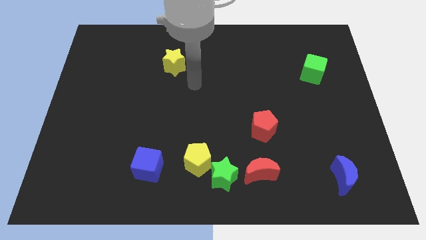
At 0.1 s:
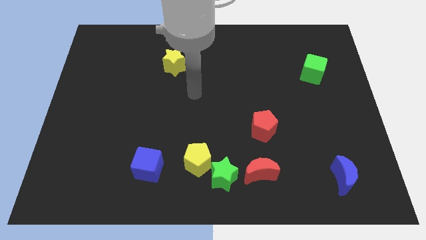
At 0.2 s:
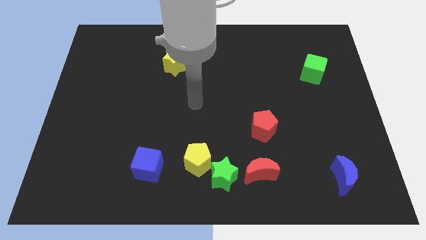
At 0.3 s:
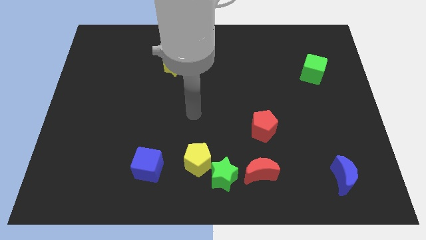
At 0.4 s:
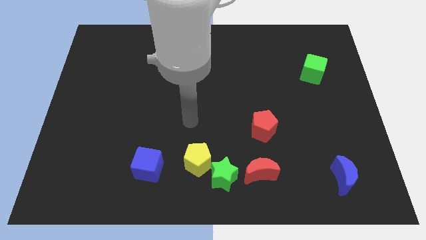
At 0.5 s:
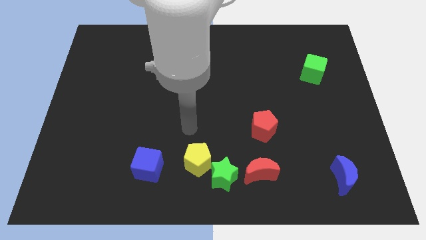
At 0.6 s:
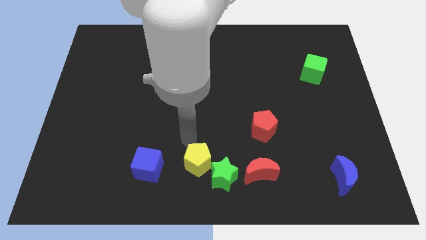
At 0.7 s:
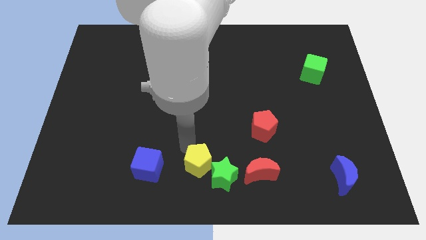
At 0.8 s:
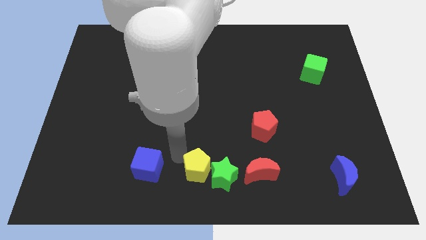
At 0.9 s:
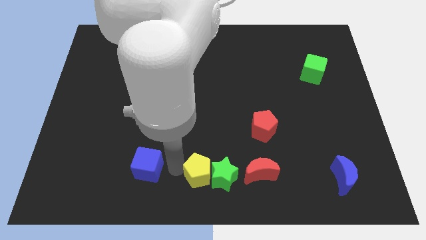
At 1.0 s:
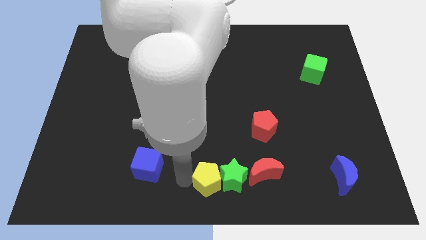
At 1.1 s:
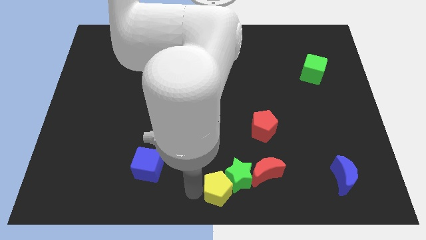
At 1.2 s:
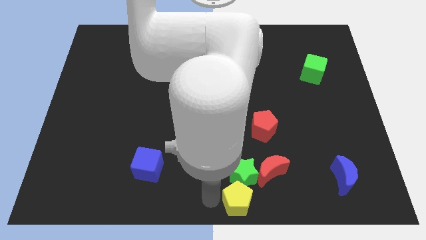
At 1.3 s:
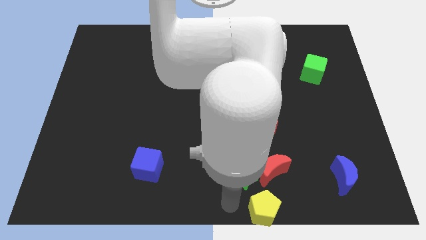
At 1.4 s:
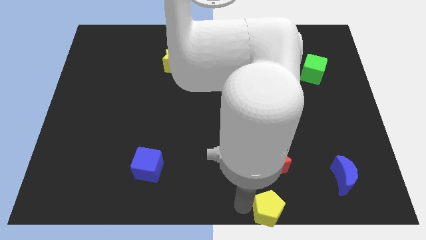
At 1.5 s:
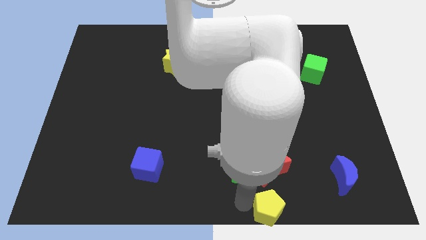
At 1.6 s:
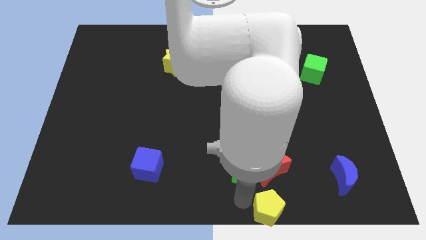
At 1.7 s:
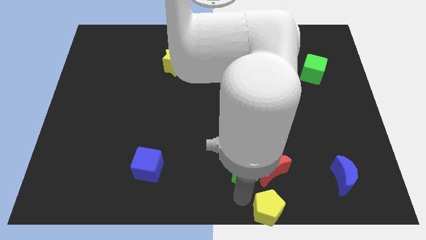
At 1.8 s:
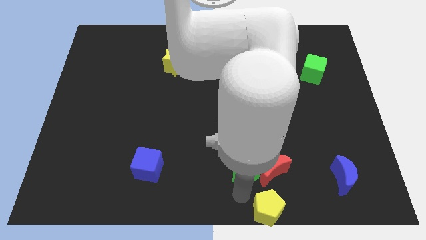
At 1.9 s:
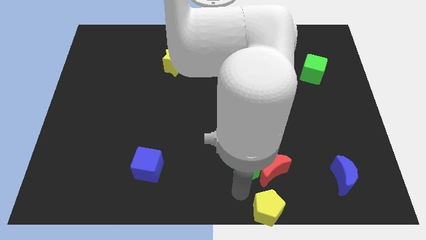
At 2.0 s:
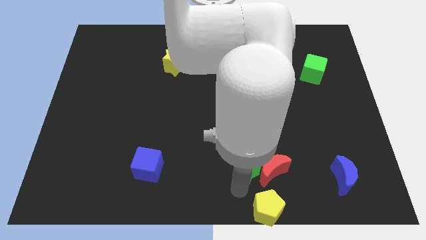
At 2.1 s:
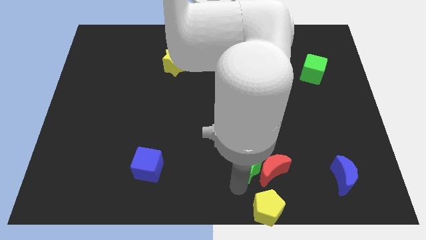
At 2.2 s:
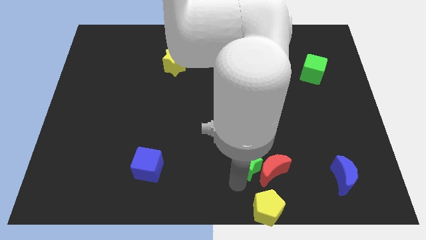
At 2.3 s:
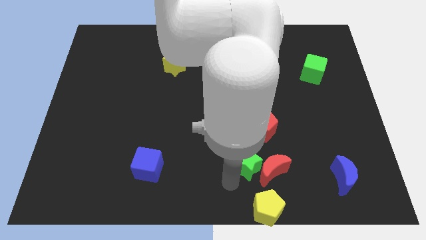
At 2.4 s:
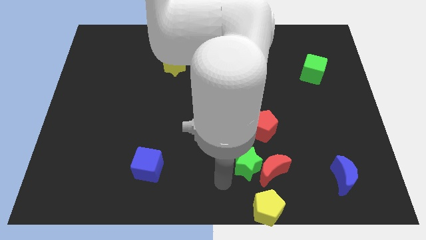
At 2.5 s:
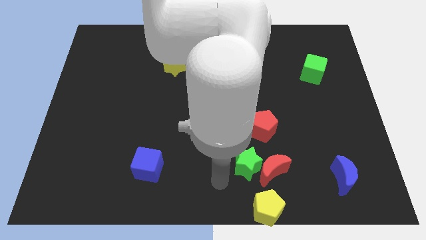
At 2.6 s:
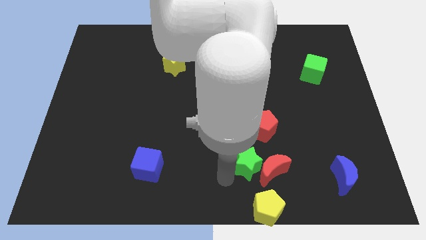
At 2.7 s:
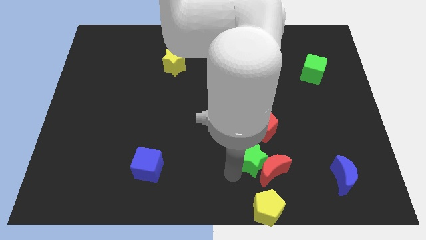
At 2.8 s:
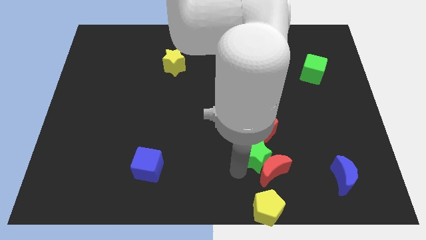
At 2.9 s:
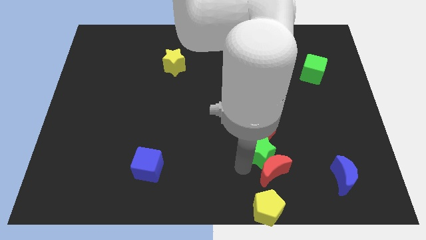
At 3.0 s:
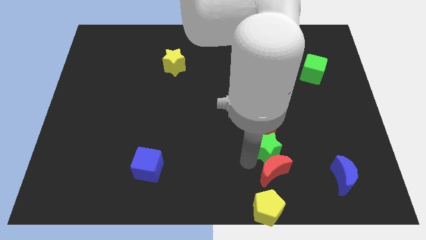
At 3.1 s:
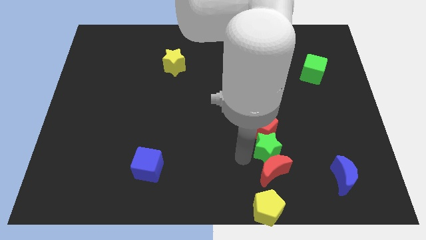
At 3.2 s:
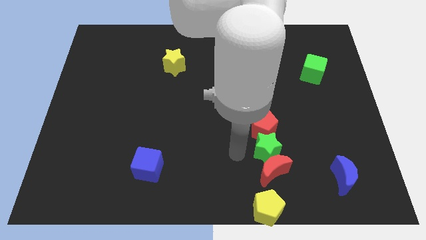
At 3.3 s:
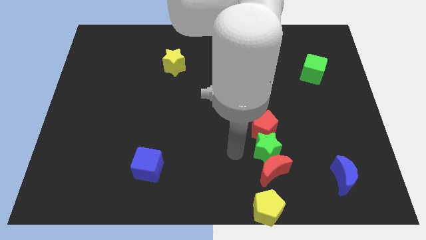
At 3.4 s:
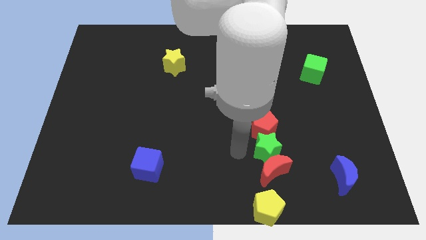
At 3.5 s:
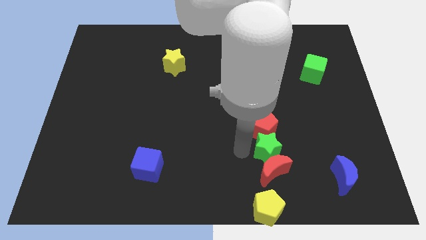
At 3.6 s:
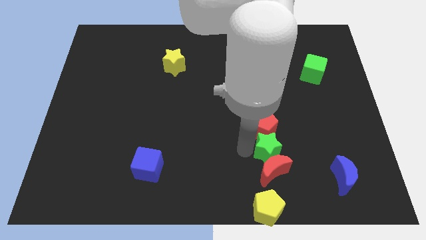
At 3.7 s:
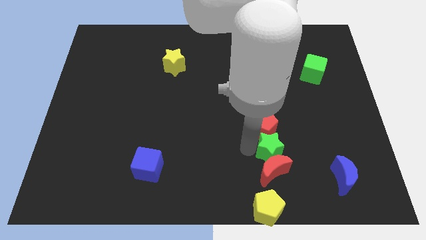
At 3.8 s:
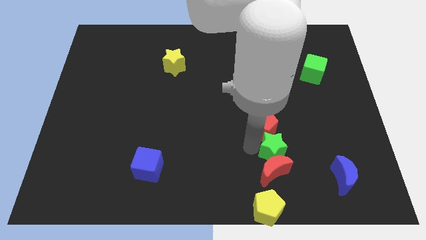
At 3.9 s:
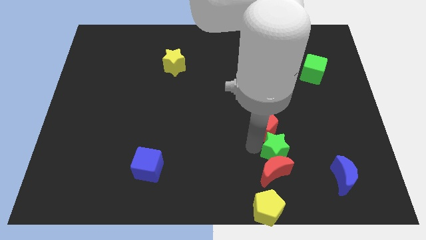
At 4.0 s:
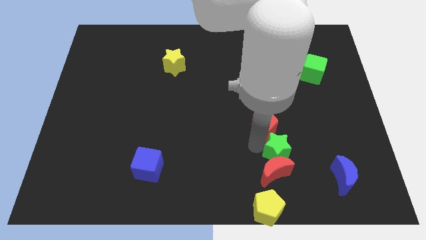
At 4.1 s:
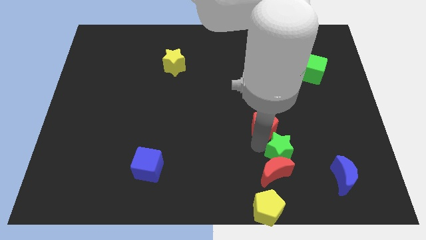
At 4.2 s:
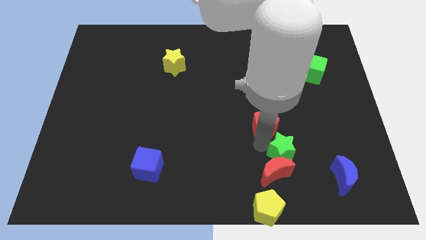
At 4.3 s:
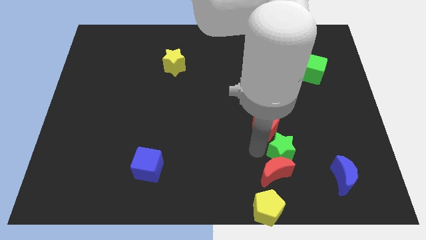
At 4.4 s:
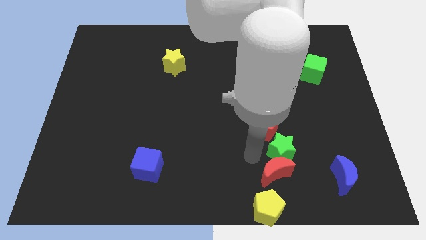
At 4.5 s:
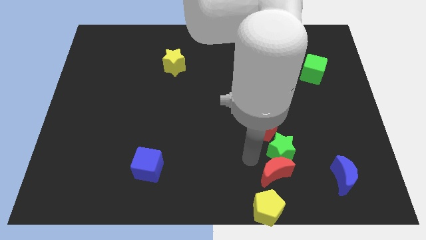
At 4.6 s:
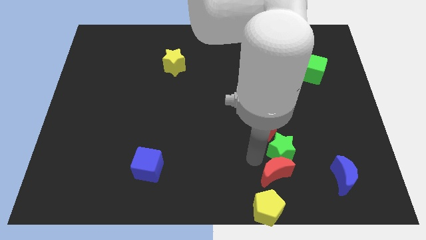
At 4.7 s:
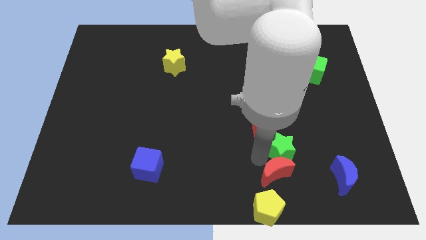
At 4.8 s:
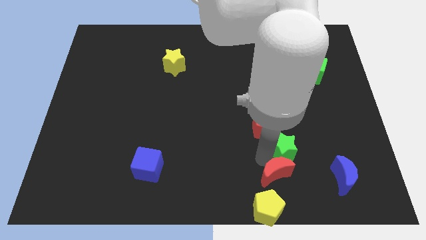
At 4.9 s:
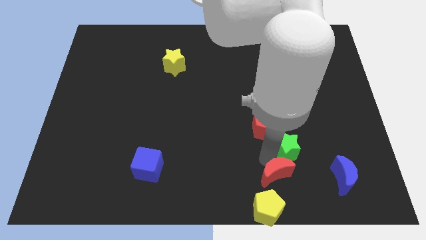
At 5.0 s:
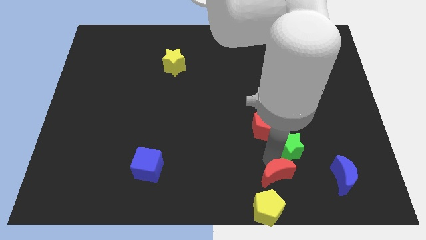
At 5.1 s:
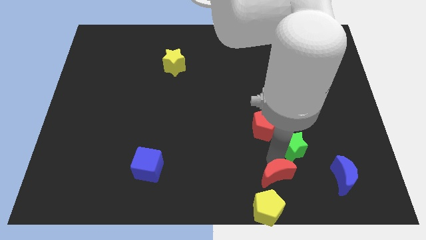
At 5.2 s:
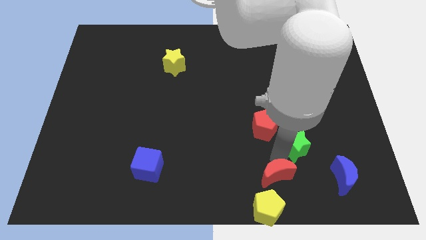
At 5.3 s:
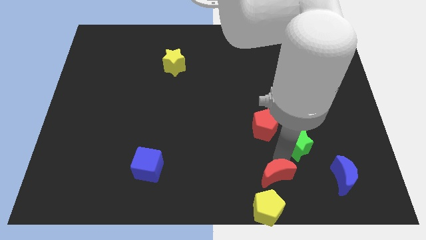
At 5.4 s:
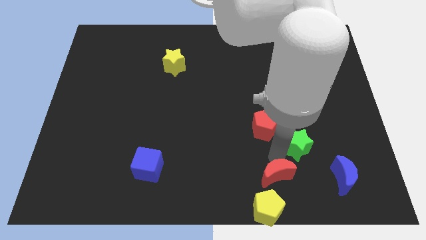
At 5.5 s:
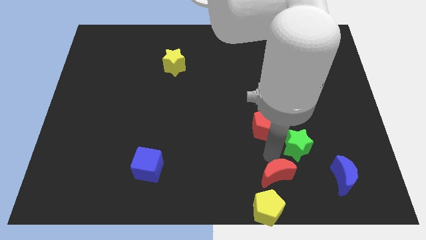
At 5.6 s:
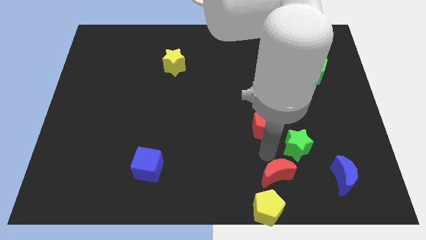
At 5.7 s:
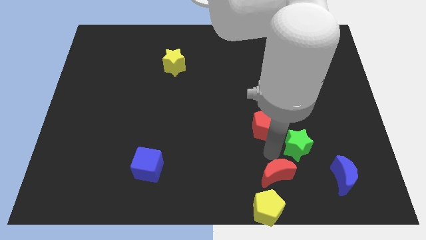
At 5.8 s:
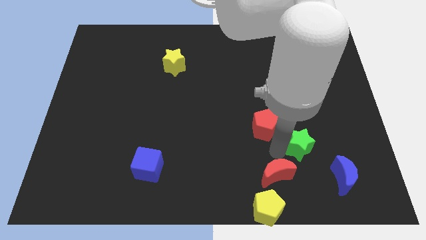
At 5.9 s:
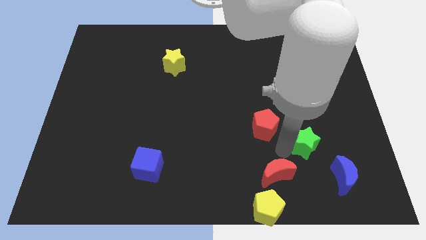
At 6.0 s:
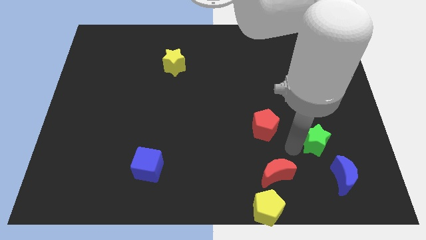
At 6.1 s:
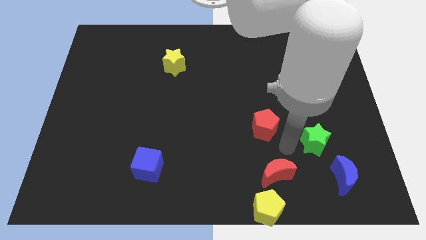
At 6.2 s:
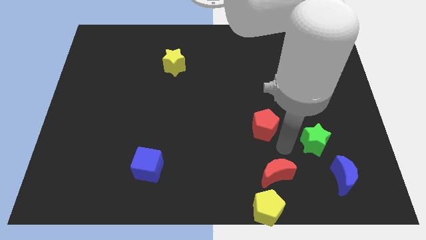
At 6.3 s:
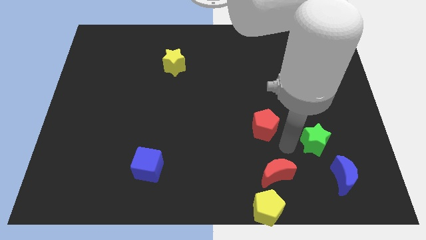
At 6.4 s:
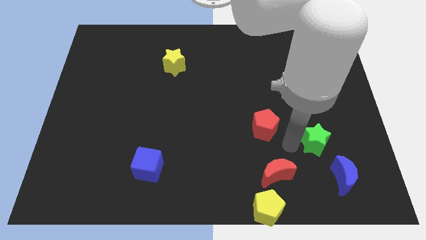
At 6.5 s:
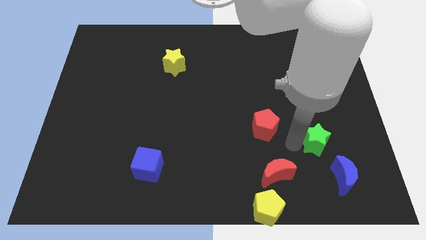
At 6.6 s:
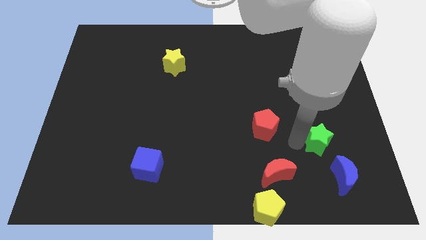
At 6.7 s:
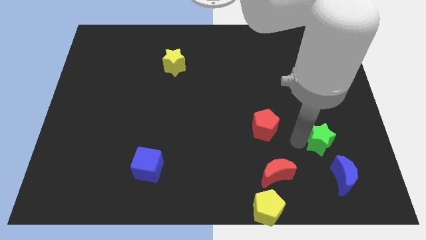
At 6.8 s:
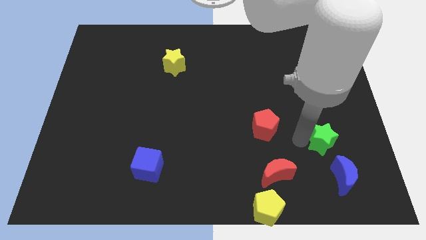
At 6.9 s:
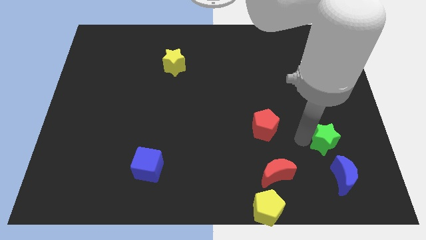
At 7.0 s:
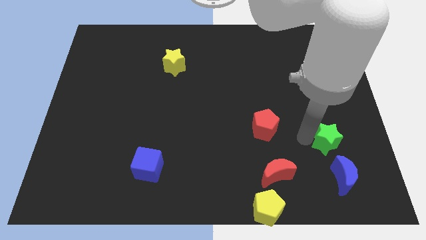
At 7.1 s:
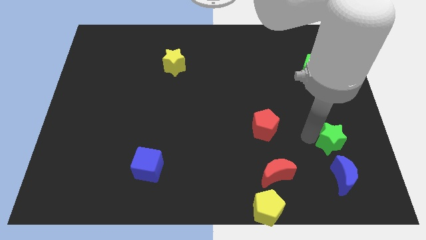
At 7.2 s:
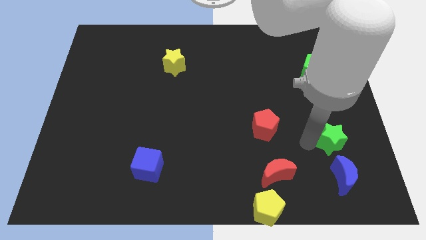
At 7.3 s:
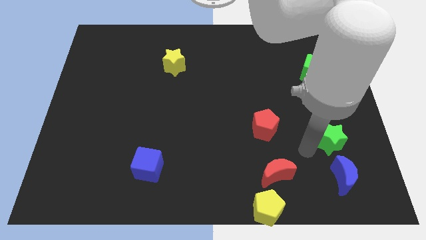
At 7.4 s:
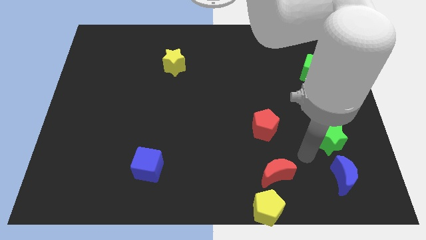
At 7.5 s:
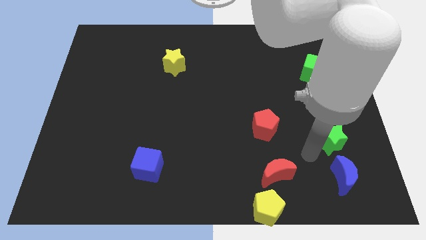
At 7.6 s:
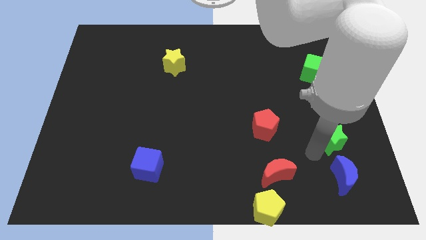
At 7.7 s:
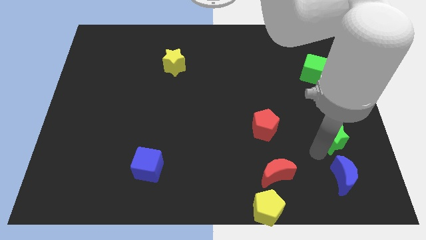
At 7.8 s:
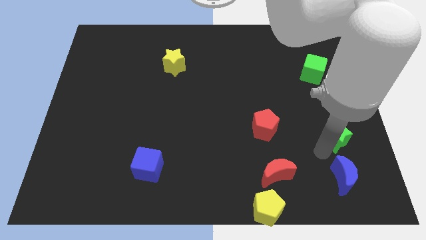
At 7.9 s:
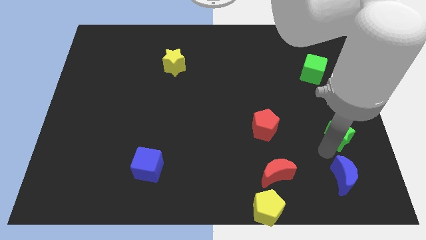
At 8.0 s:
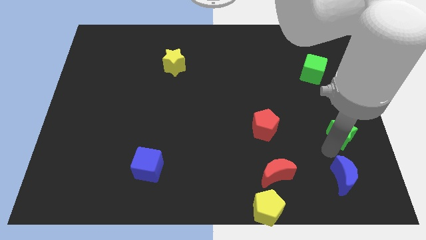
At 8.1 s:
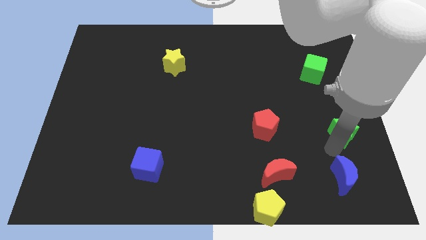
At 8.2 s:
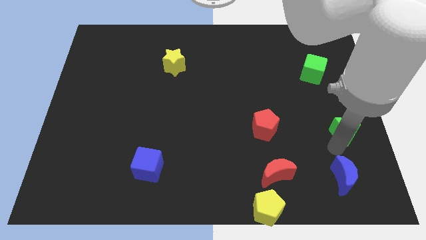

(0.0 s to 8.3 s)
move the green star to the right side of the board
